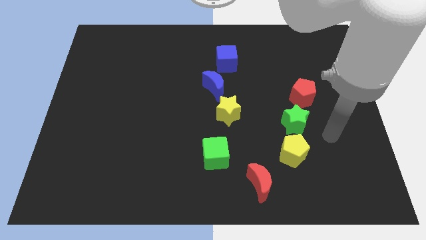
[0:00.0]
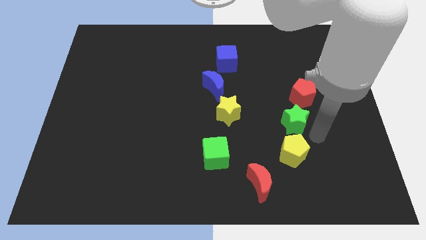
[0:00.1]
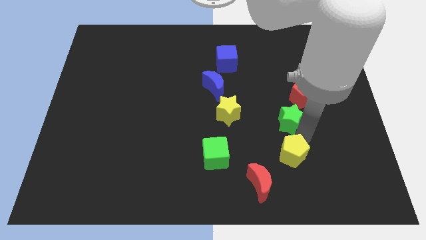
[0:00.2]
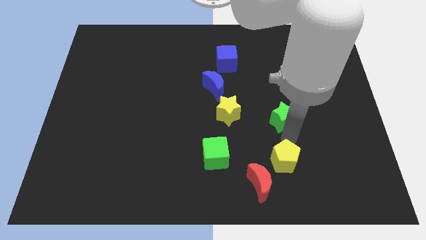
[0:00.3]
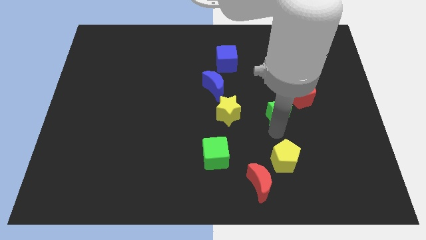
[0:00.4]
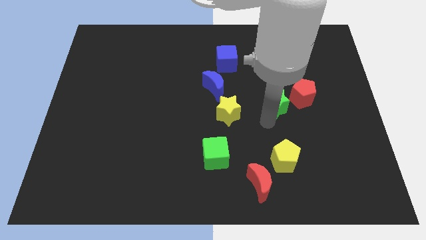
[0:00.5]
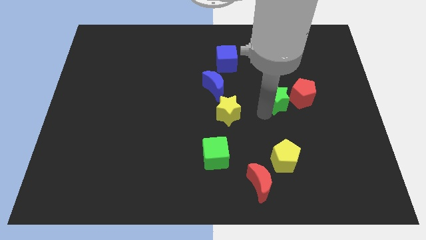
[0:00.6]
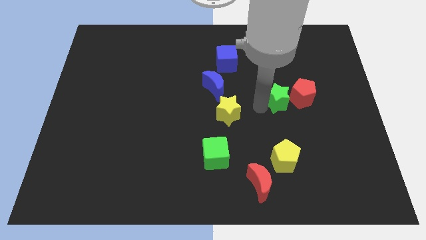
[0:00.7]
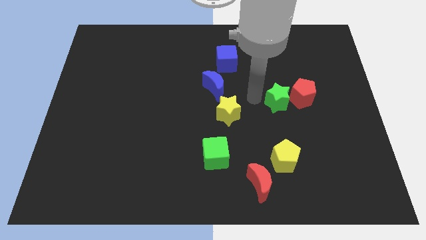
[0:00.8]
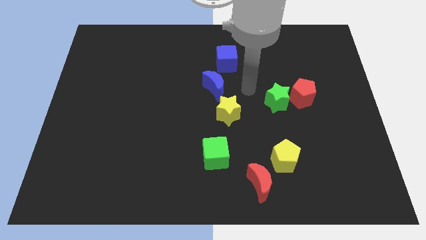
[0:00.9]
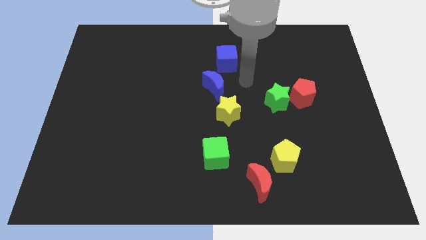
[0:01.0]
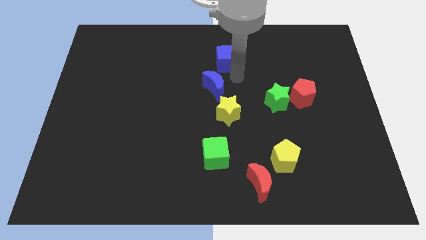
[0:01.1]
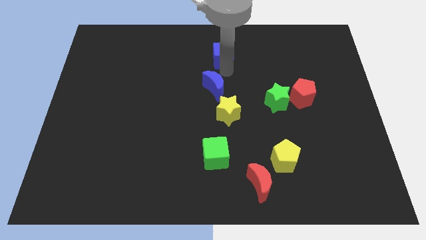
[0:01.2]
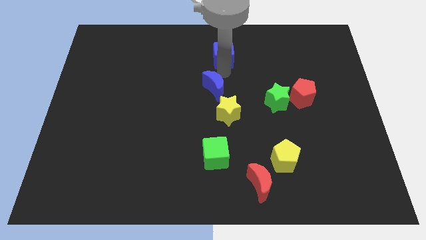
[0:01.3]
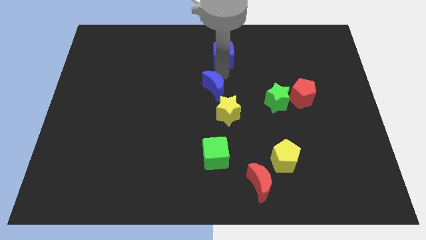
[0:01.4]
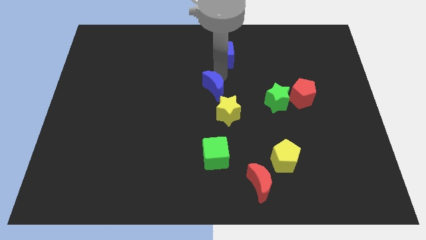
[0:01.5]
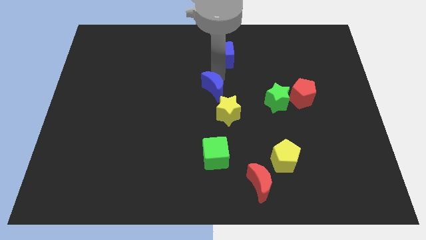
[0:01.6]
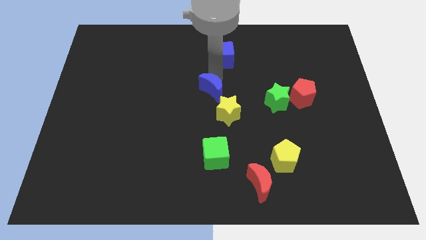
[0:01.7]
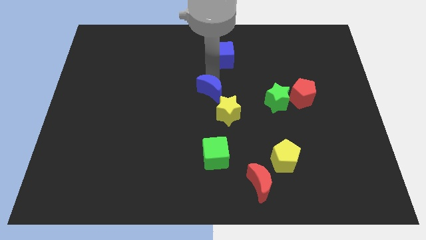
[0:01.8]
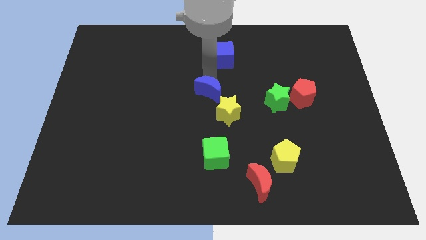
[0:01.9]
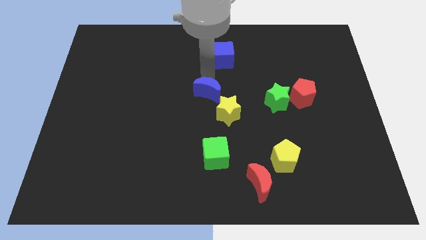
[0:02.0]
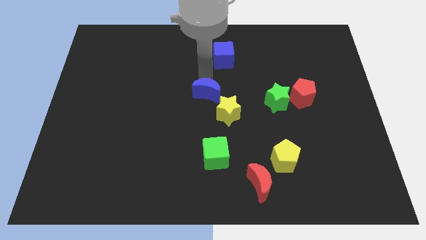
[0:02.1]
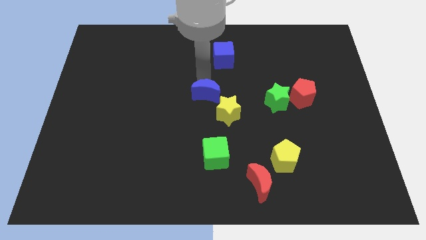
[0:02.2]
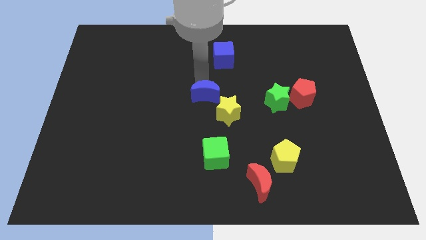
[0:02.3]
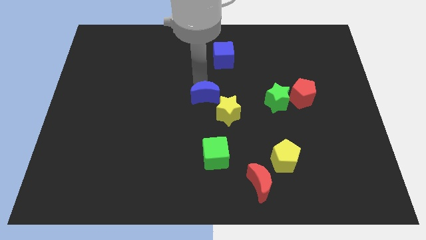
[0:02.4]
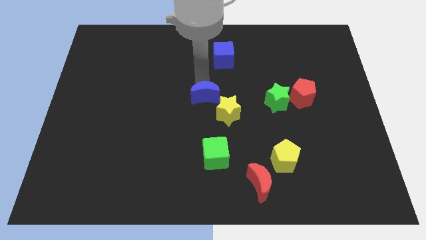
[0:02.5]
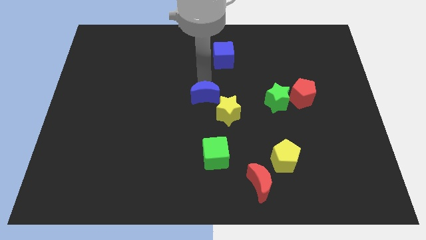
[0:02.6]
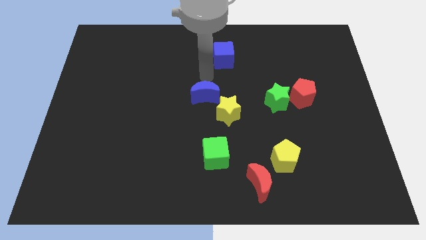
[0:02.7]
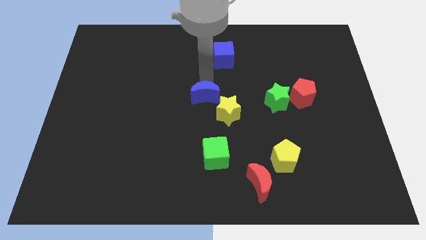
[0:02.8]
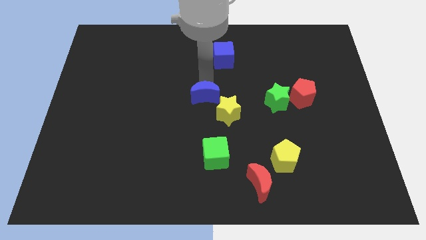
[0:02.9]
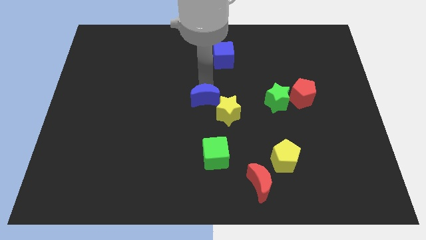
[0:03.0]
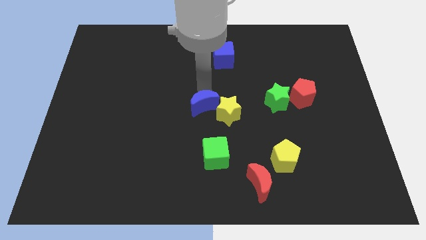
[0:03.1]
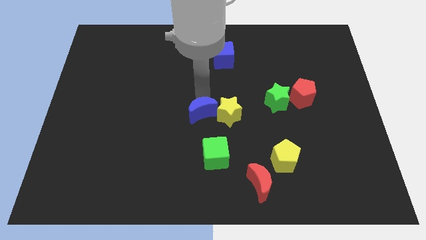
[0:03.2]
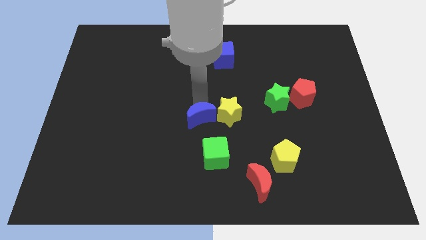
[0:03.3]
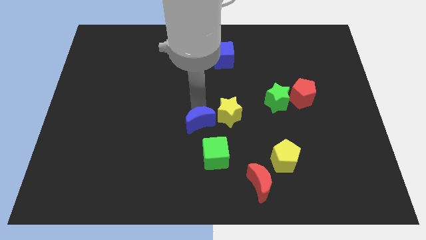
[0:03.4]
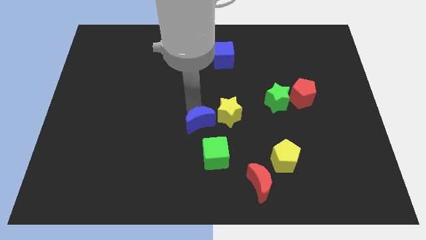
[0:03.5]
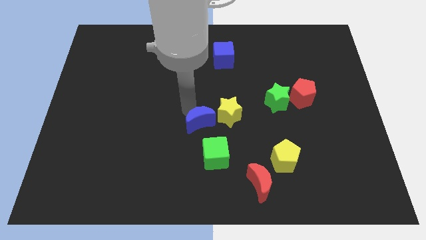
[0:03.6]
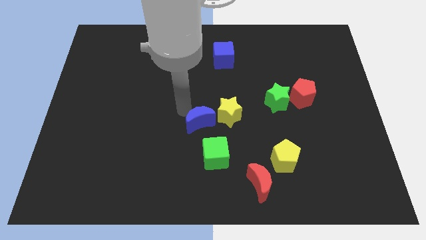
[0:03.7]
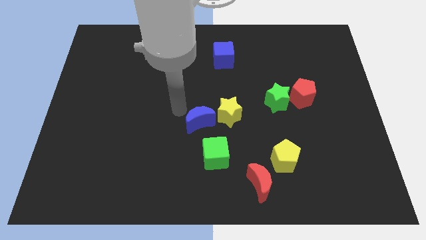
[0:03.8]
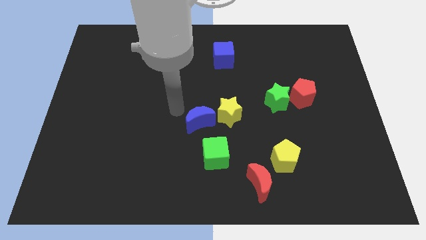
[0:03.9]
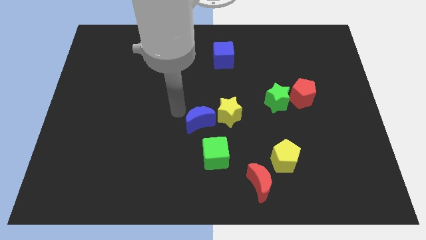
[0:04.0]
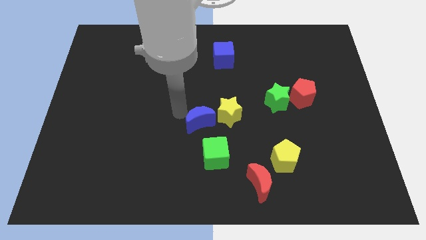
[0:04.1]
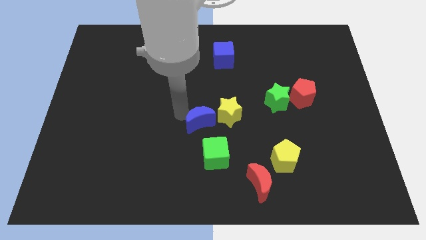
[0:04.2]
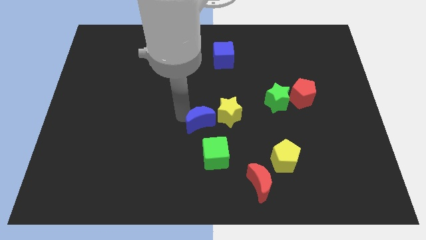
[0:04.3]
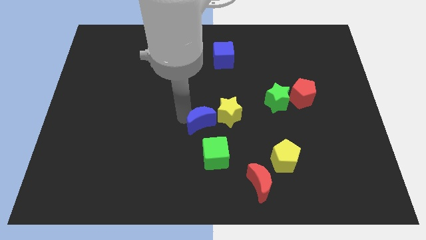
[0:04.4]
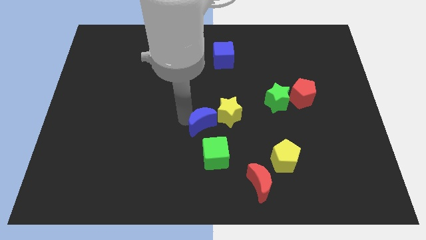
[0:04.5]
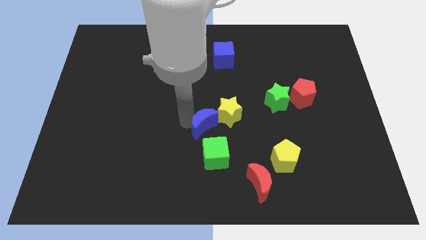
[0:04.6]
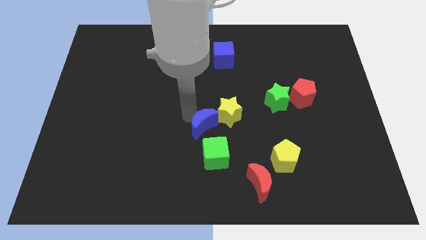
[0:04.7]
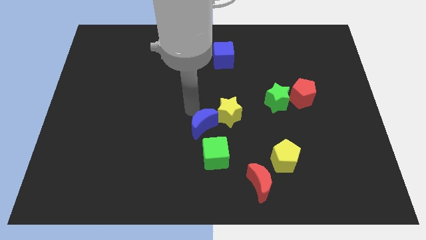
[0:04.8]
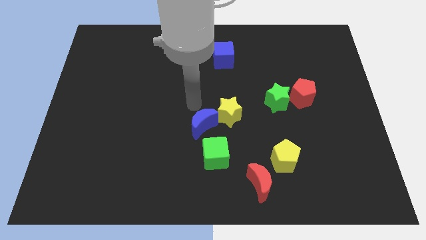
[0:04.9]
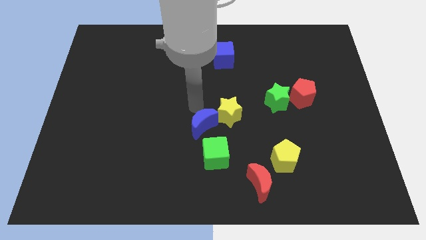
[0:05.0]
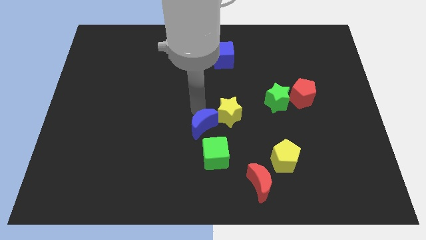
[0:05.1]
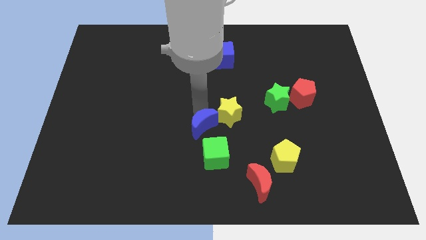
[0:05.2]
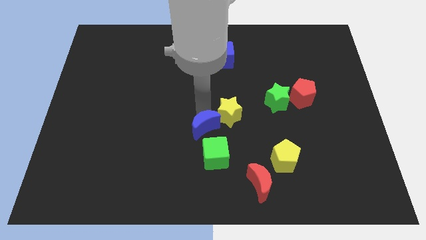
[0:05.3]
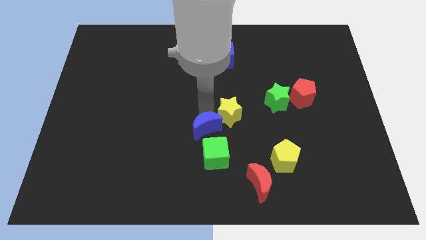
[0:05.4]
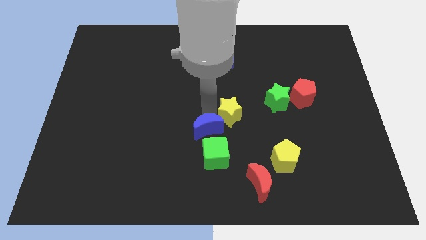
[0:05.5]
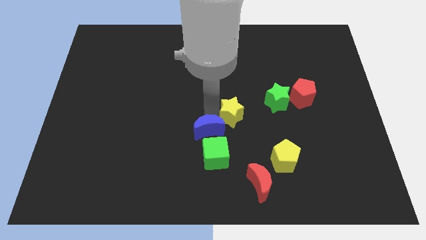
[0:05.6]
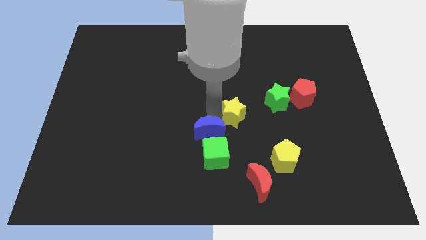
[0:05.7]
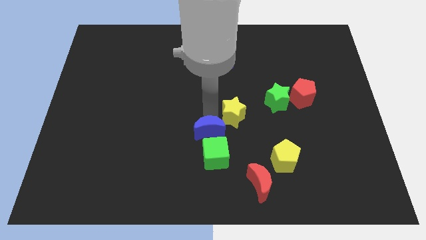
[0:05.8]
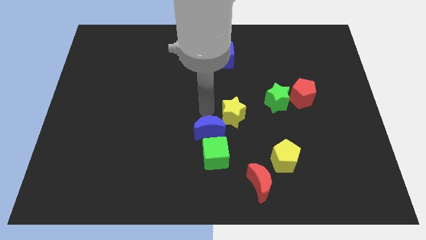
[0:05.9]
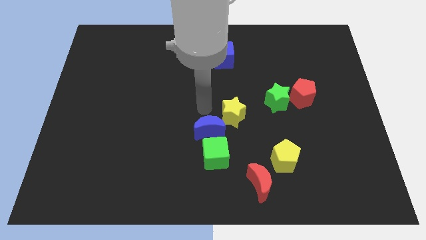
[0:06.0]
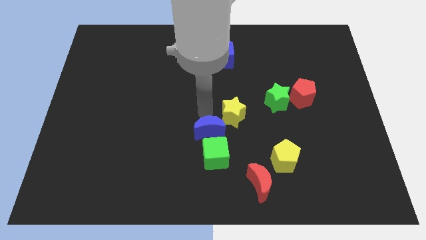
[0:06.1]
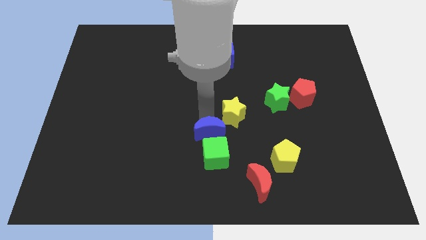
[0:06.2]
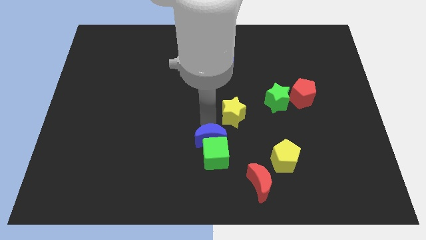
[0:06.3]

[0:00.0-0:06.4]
push the blue moon next to the green cube

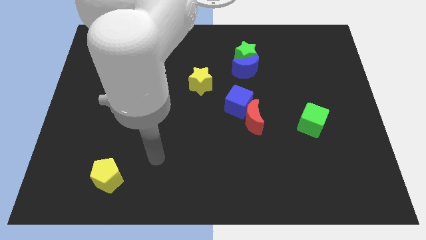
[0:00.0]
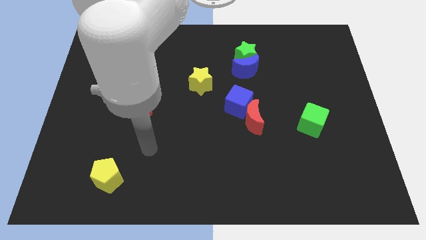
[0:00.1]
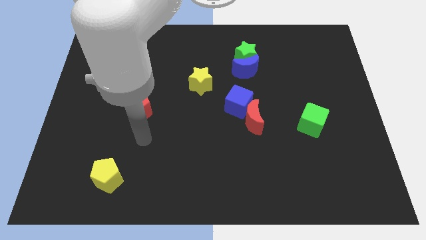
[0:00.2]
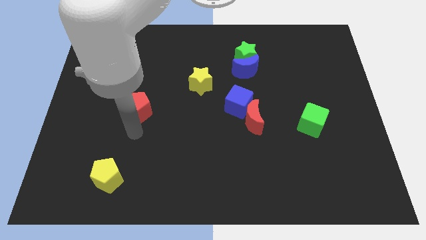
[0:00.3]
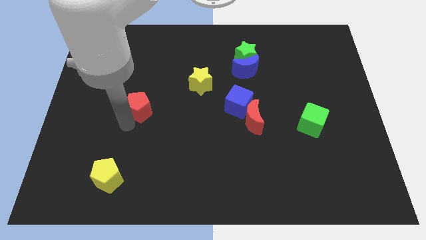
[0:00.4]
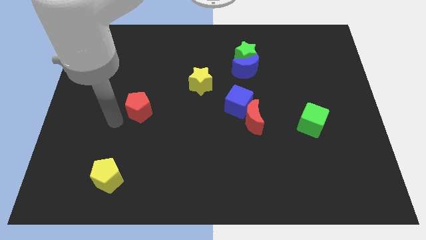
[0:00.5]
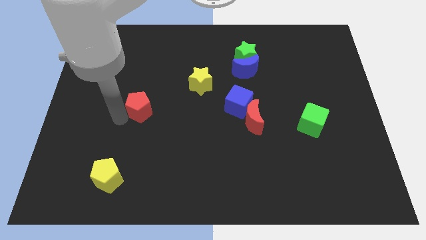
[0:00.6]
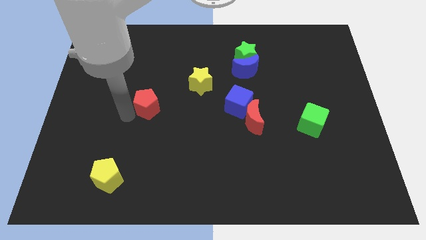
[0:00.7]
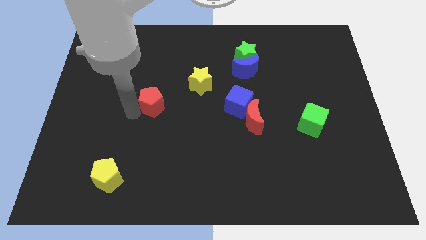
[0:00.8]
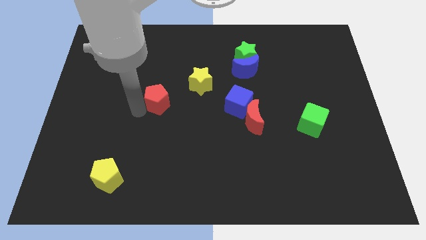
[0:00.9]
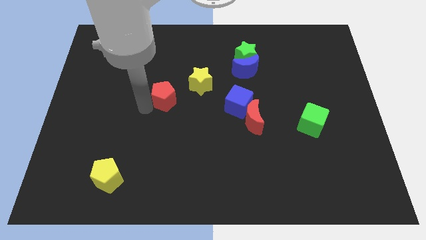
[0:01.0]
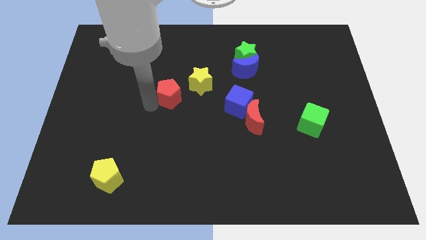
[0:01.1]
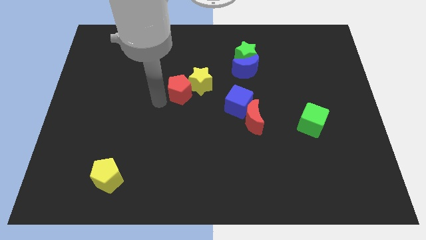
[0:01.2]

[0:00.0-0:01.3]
slide the red pentagon towards the yellow star

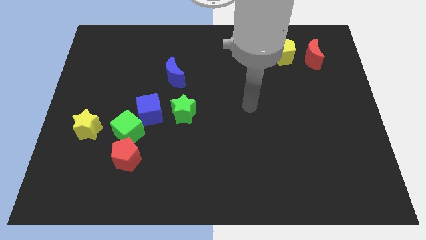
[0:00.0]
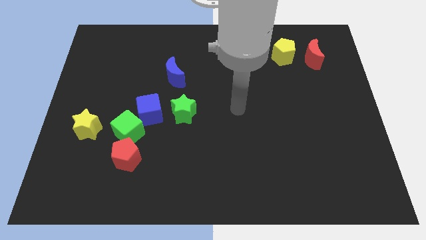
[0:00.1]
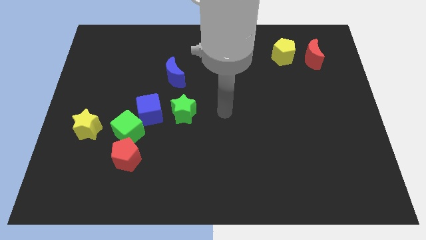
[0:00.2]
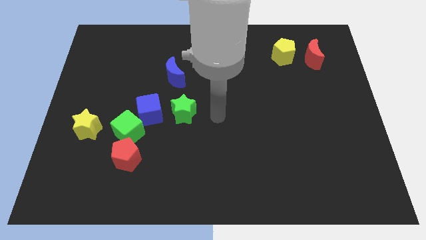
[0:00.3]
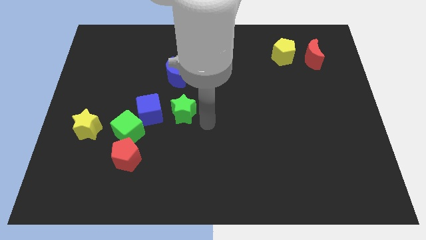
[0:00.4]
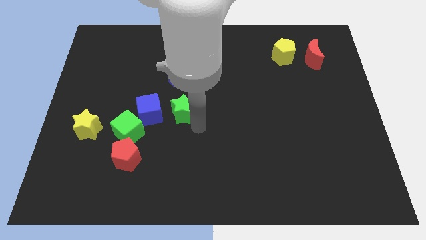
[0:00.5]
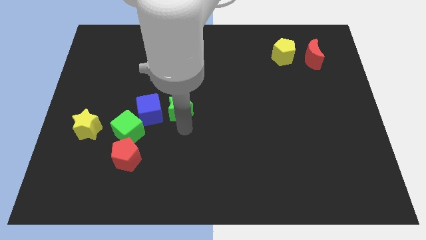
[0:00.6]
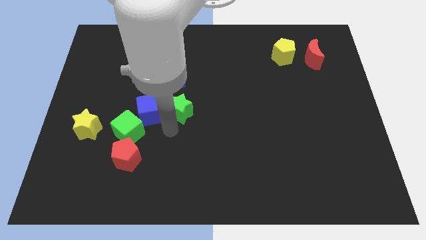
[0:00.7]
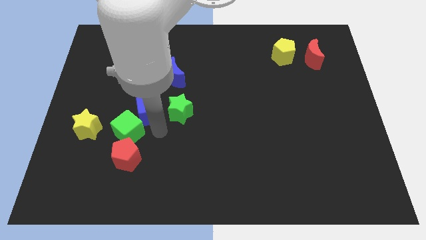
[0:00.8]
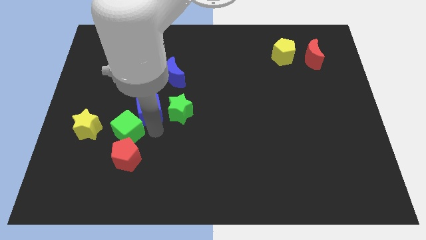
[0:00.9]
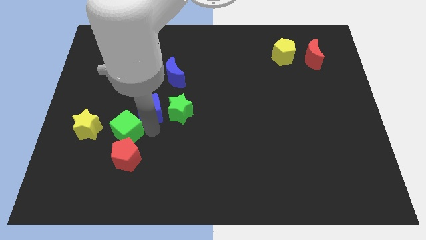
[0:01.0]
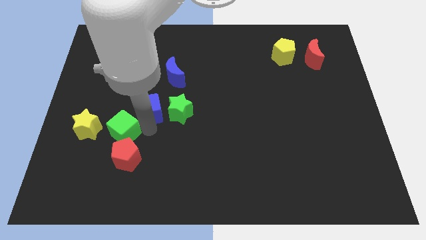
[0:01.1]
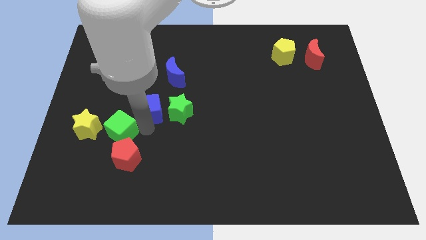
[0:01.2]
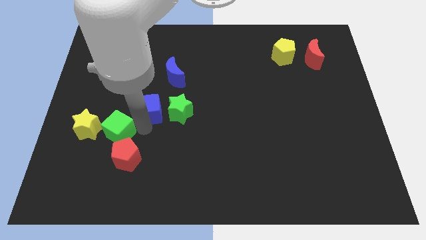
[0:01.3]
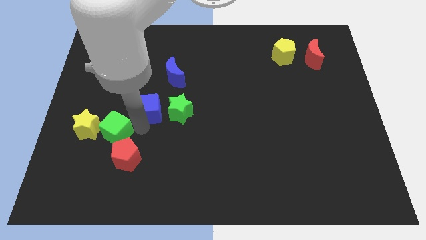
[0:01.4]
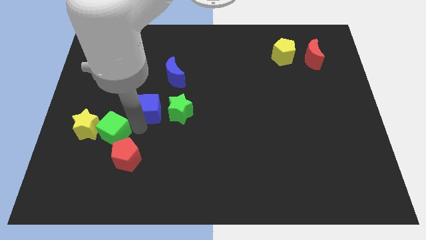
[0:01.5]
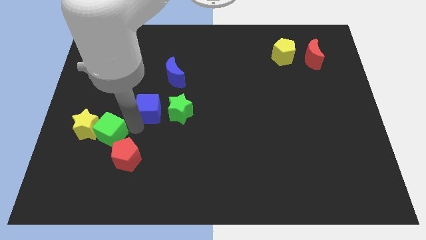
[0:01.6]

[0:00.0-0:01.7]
push the green cube to the yellow star
